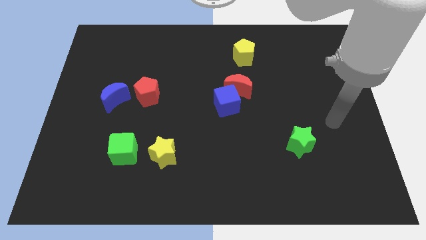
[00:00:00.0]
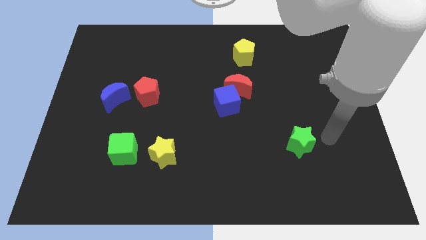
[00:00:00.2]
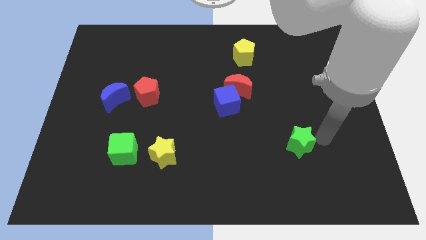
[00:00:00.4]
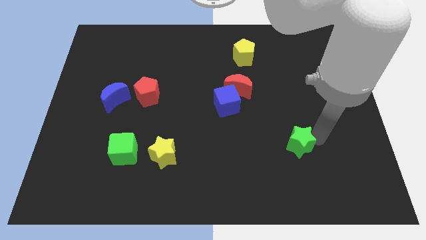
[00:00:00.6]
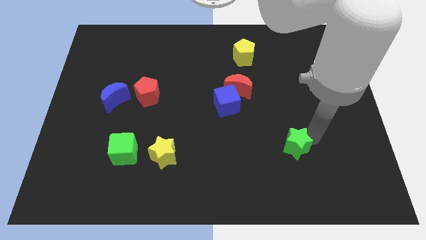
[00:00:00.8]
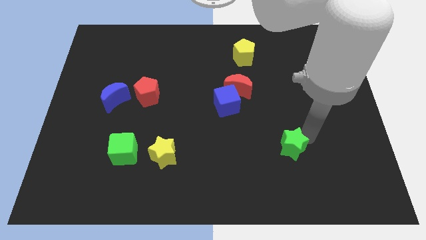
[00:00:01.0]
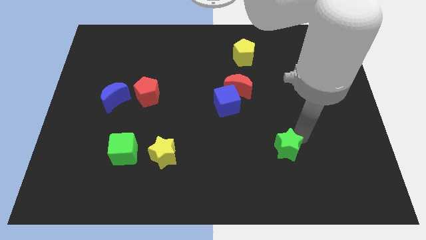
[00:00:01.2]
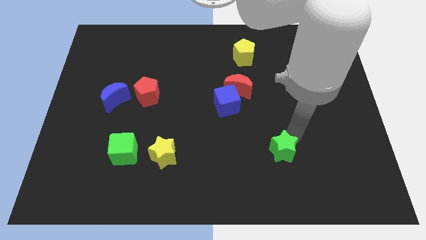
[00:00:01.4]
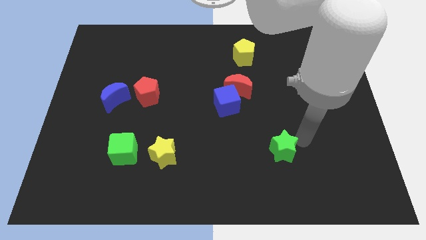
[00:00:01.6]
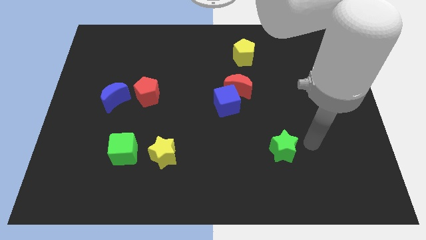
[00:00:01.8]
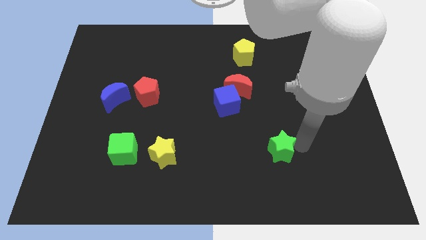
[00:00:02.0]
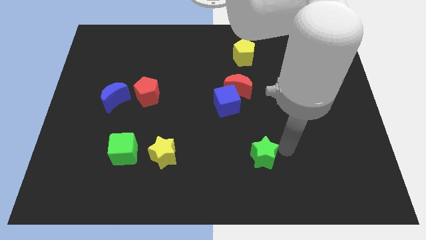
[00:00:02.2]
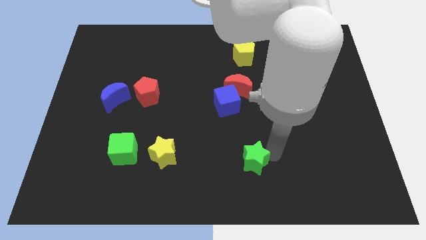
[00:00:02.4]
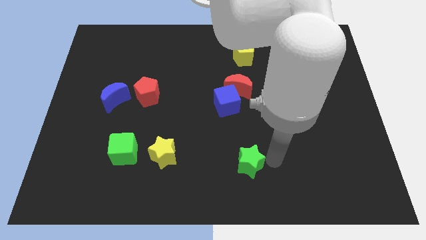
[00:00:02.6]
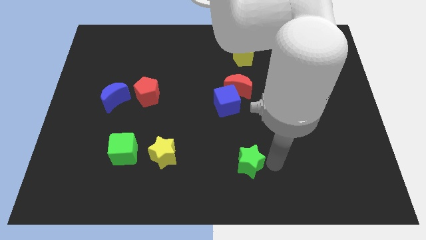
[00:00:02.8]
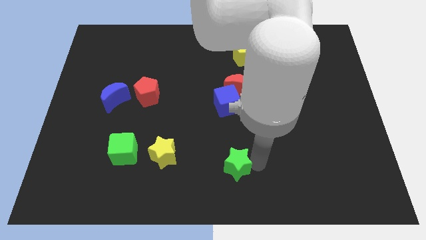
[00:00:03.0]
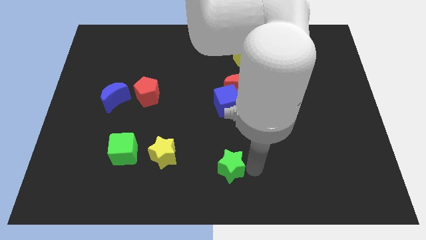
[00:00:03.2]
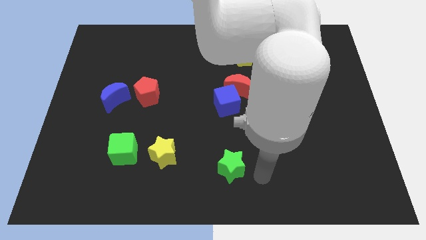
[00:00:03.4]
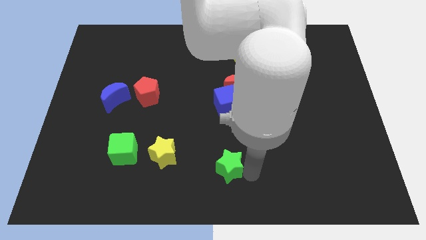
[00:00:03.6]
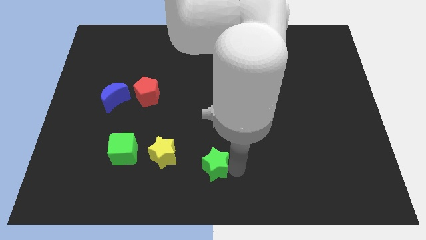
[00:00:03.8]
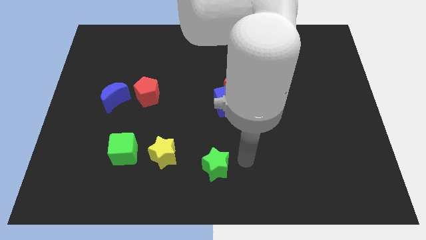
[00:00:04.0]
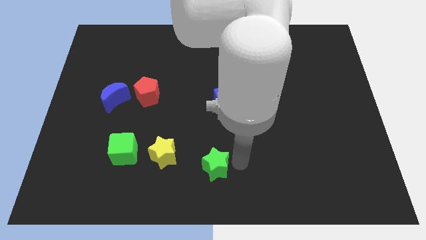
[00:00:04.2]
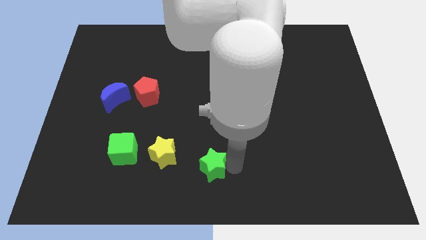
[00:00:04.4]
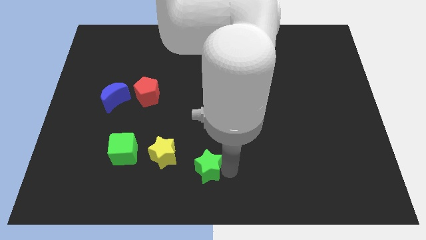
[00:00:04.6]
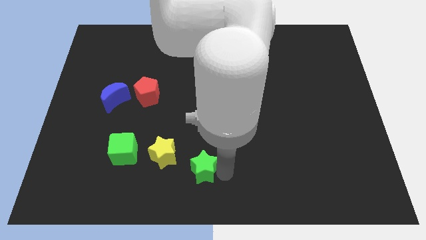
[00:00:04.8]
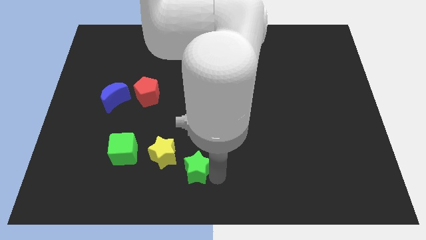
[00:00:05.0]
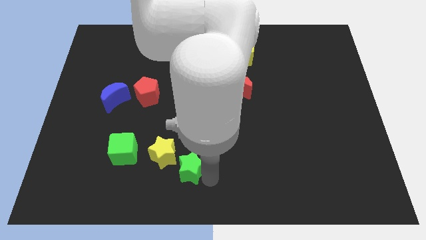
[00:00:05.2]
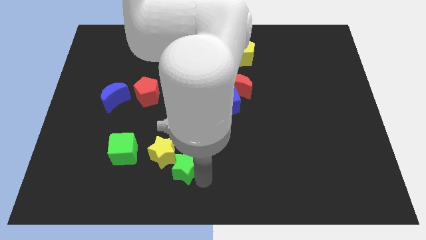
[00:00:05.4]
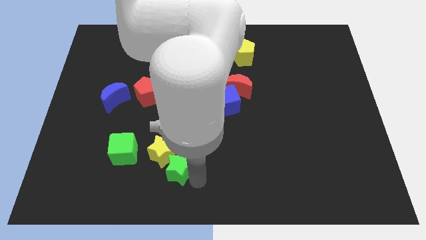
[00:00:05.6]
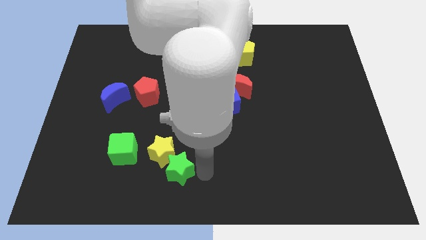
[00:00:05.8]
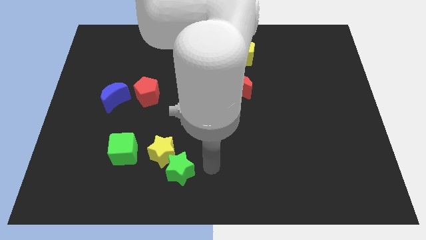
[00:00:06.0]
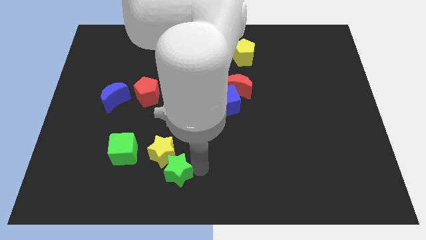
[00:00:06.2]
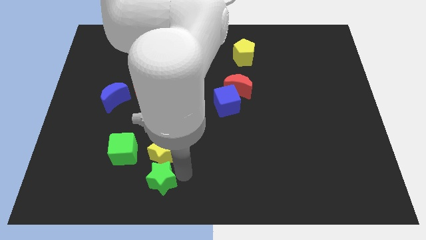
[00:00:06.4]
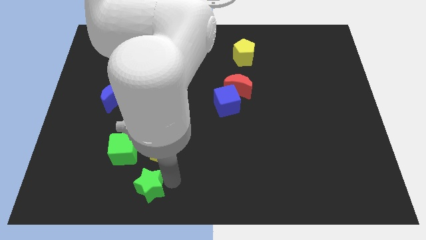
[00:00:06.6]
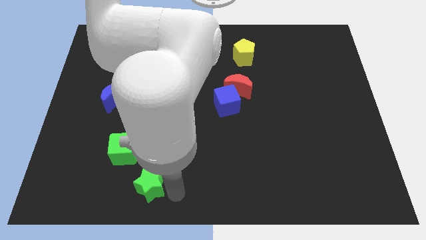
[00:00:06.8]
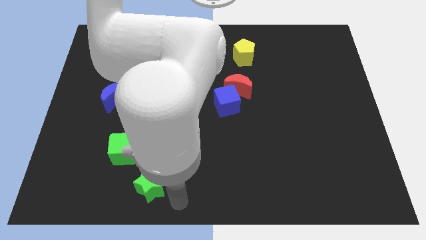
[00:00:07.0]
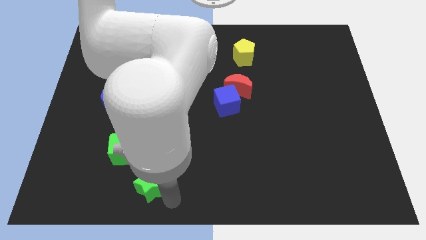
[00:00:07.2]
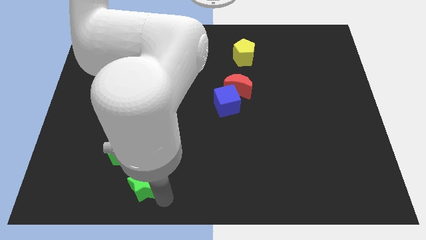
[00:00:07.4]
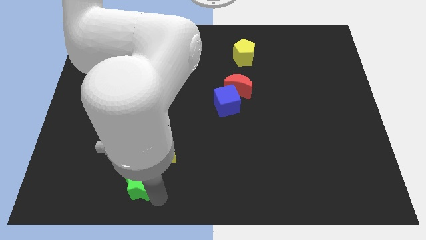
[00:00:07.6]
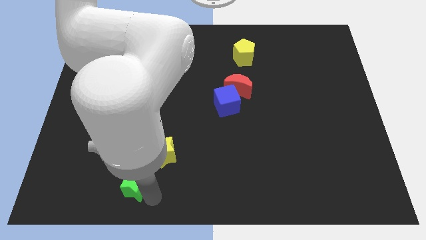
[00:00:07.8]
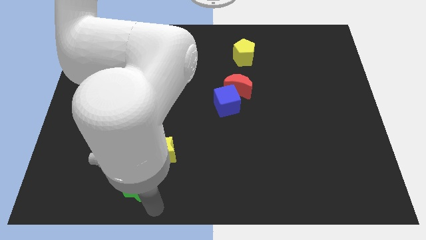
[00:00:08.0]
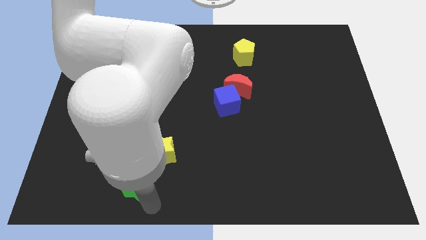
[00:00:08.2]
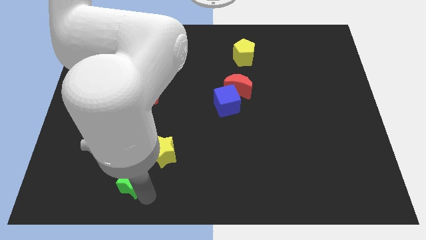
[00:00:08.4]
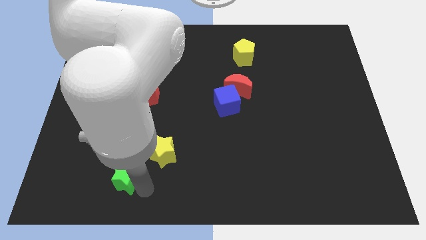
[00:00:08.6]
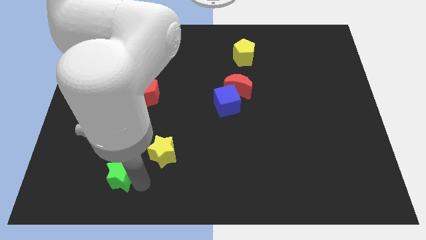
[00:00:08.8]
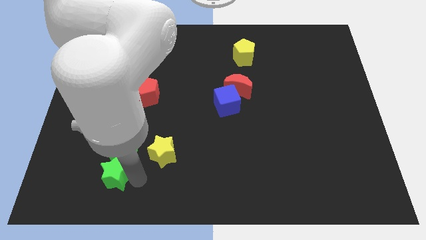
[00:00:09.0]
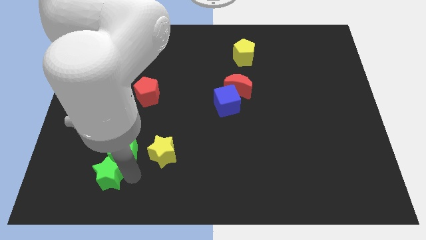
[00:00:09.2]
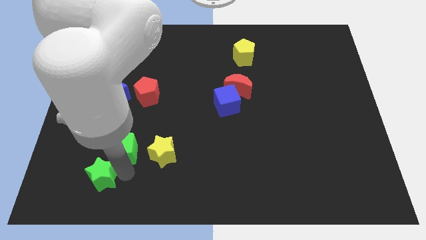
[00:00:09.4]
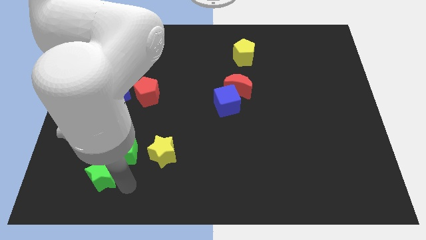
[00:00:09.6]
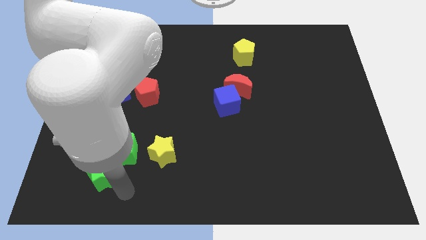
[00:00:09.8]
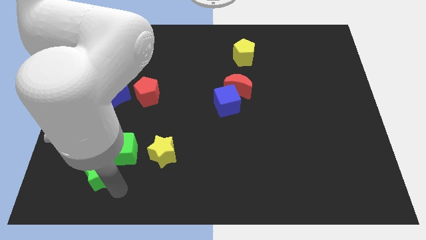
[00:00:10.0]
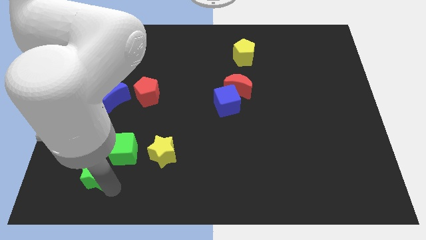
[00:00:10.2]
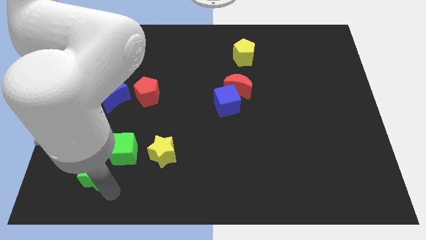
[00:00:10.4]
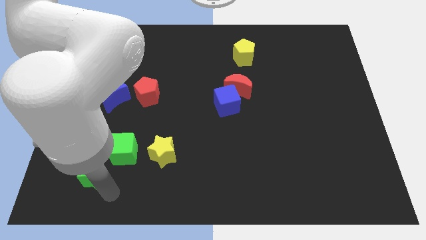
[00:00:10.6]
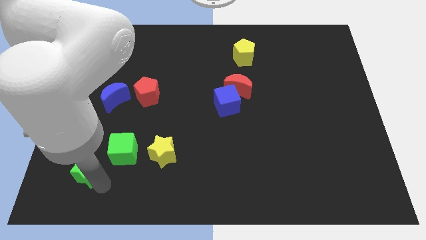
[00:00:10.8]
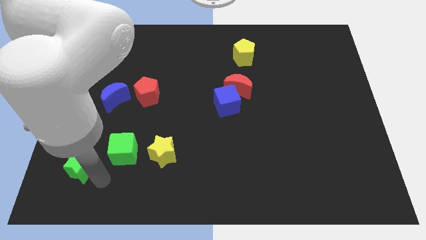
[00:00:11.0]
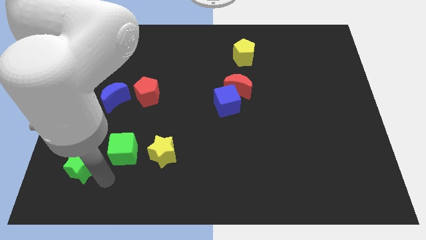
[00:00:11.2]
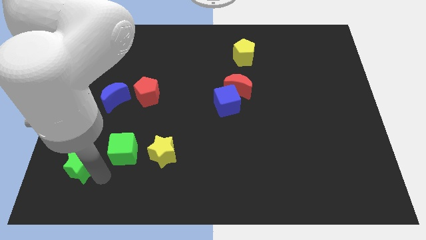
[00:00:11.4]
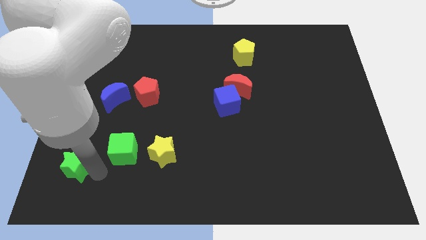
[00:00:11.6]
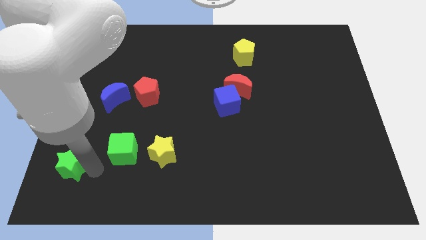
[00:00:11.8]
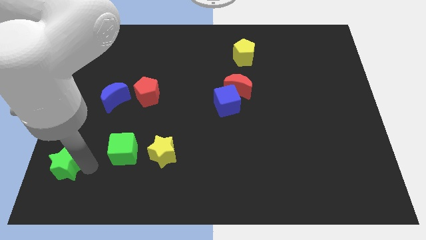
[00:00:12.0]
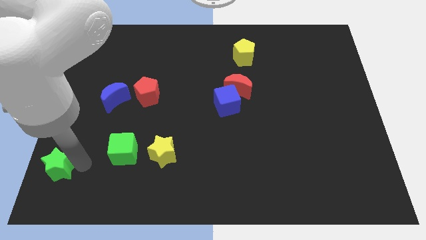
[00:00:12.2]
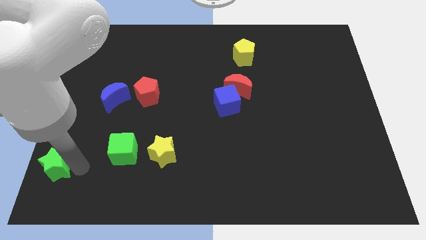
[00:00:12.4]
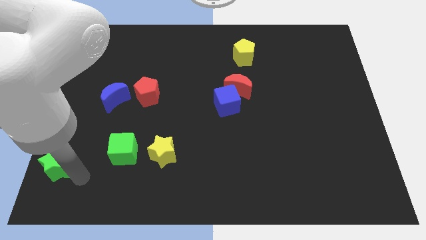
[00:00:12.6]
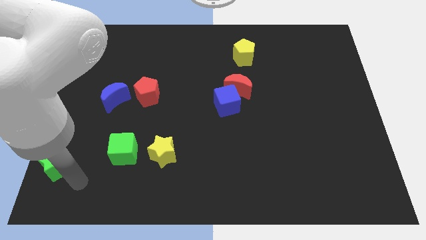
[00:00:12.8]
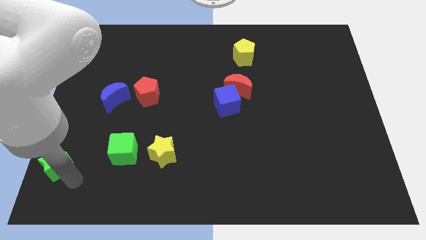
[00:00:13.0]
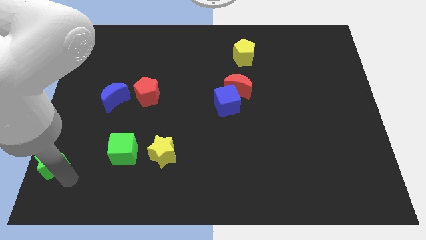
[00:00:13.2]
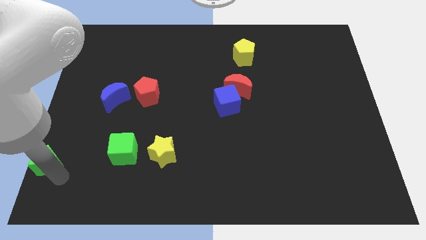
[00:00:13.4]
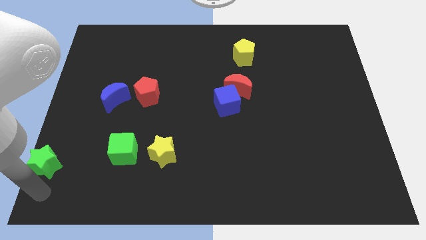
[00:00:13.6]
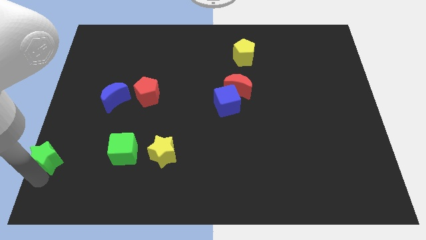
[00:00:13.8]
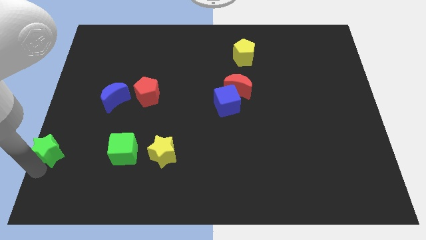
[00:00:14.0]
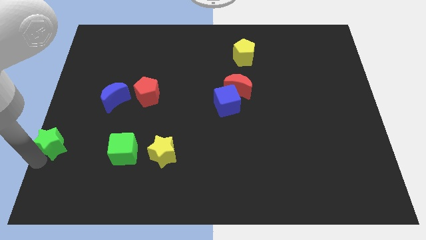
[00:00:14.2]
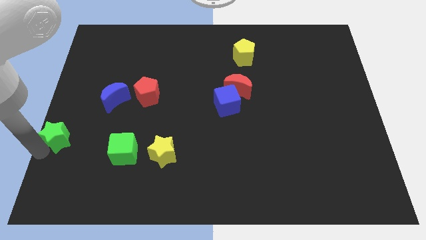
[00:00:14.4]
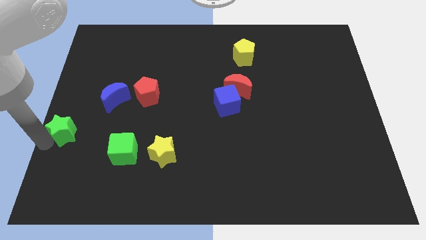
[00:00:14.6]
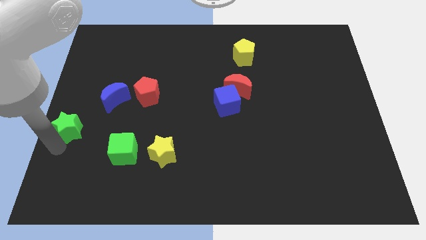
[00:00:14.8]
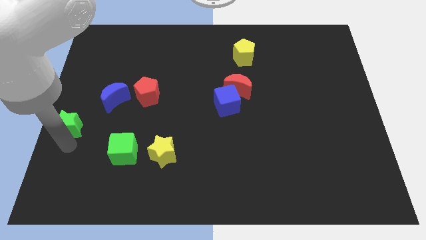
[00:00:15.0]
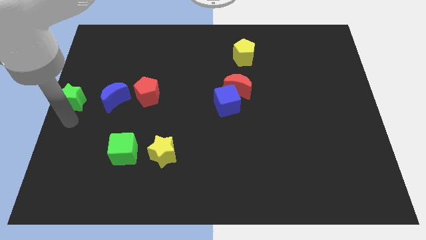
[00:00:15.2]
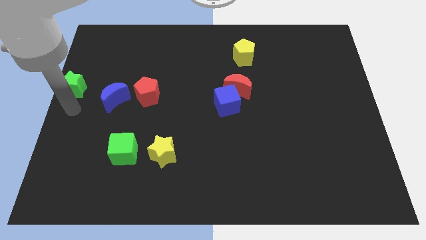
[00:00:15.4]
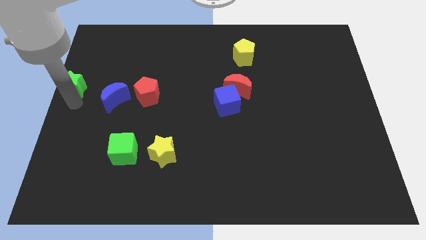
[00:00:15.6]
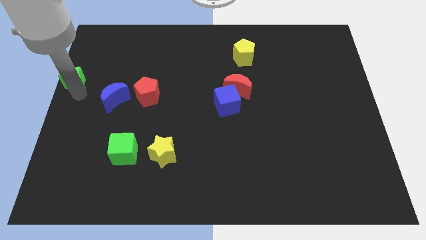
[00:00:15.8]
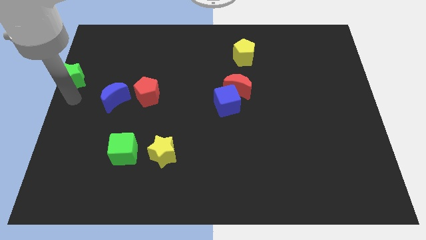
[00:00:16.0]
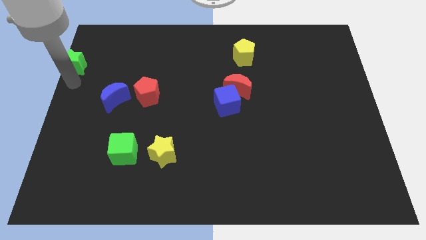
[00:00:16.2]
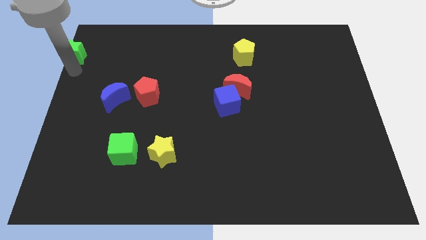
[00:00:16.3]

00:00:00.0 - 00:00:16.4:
move the green star to the upper left corner
